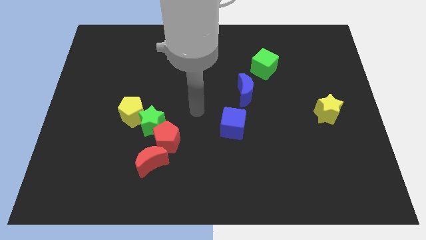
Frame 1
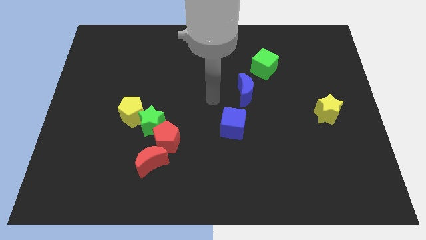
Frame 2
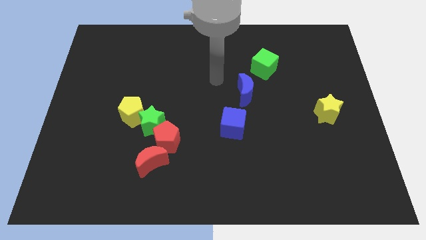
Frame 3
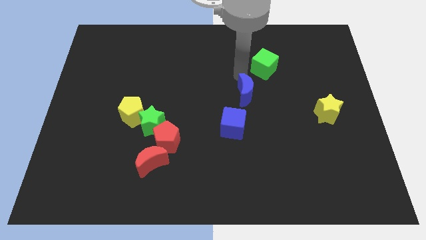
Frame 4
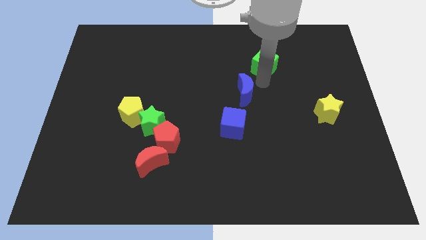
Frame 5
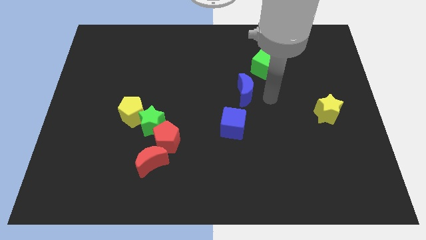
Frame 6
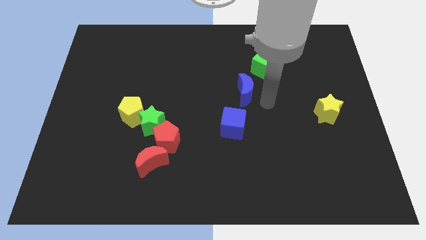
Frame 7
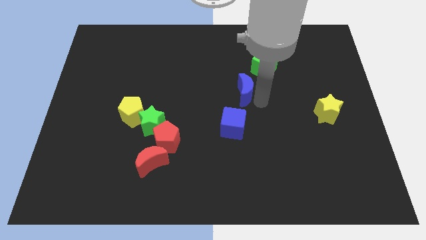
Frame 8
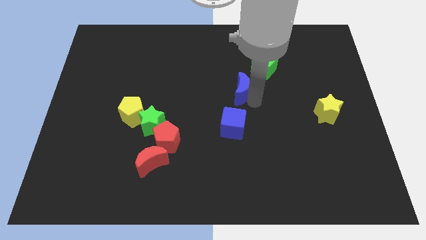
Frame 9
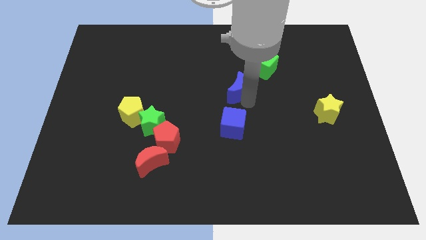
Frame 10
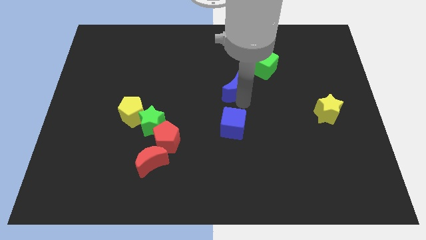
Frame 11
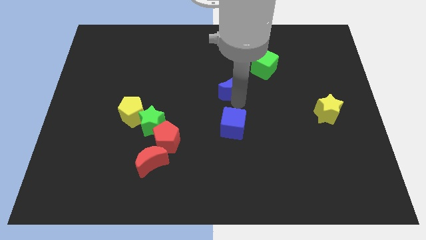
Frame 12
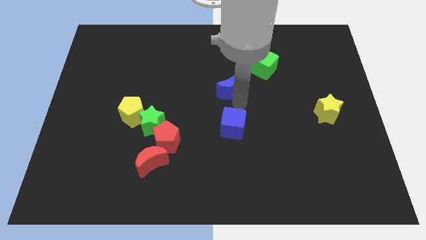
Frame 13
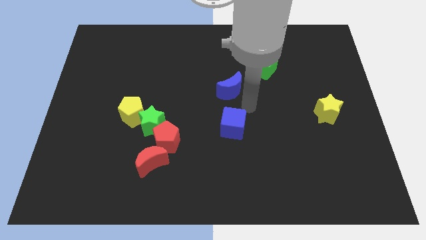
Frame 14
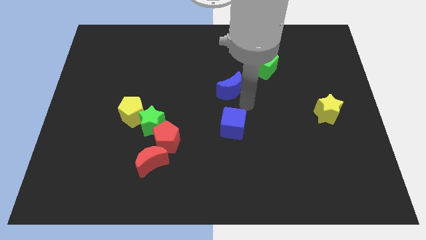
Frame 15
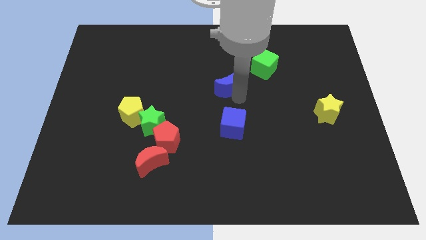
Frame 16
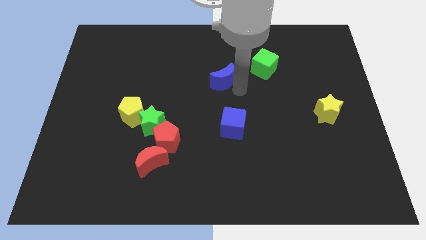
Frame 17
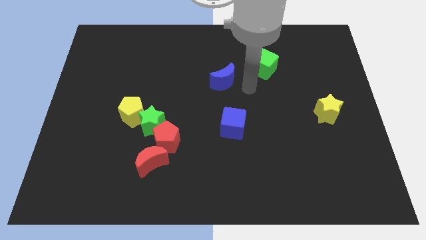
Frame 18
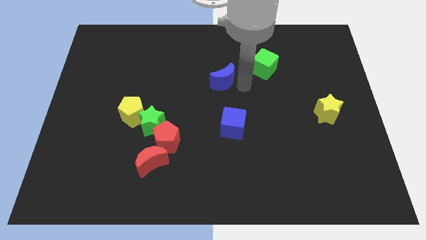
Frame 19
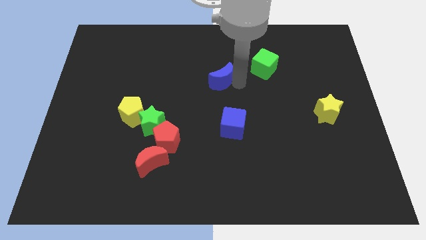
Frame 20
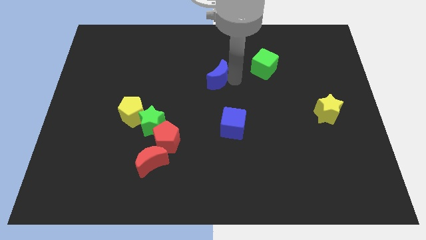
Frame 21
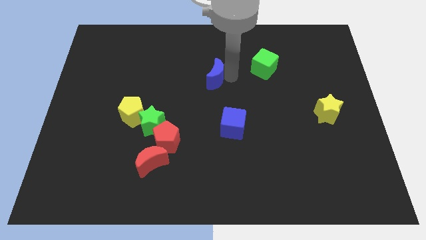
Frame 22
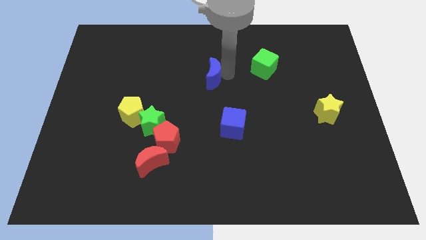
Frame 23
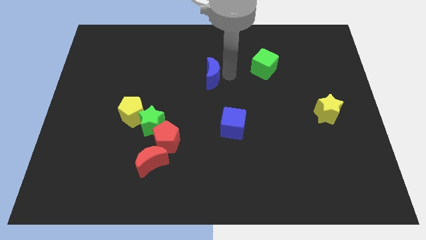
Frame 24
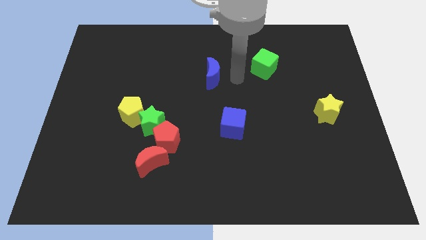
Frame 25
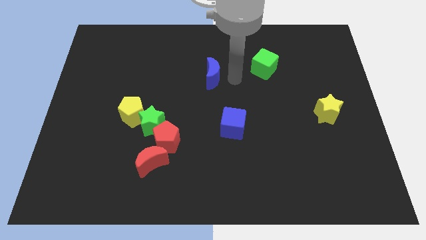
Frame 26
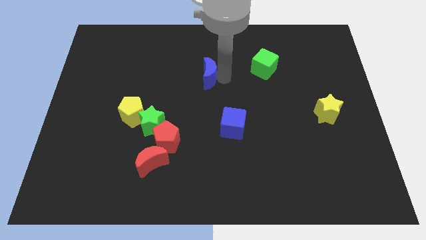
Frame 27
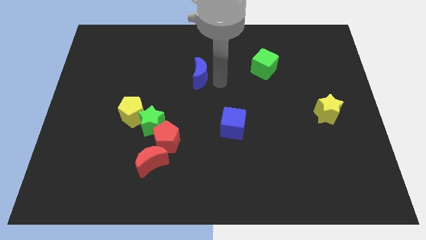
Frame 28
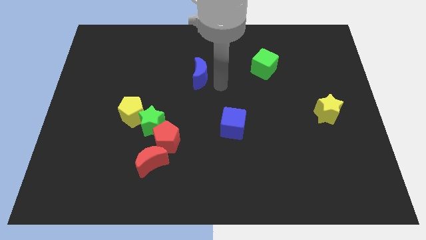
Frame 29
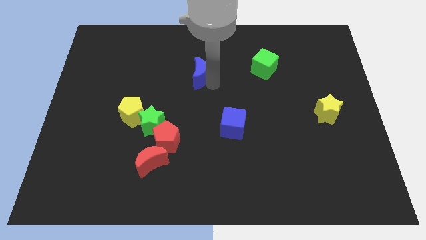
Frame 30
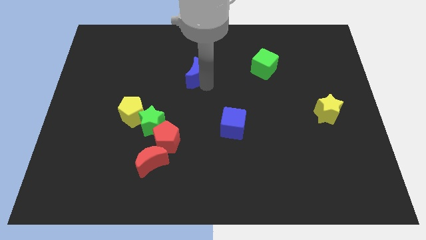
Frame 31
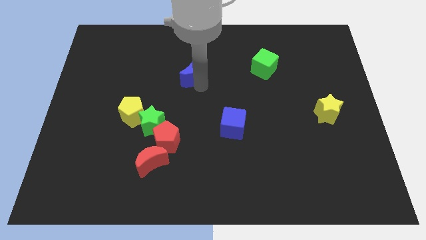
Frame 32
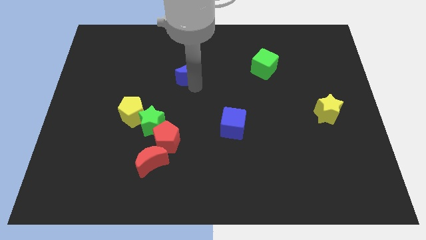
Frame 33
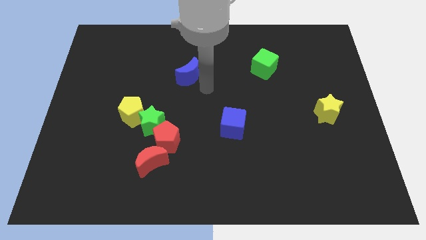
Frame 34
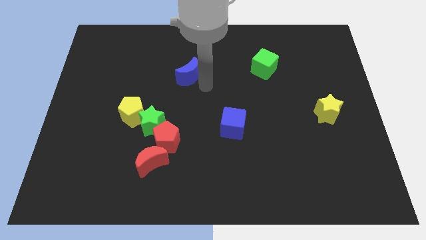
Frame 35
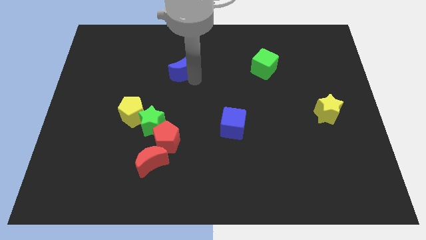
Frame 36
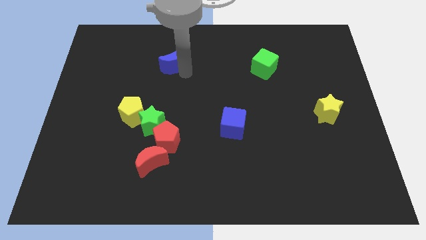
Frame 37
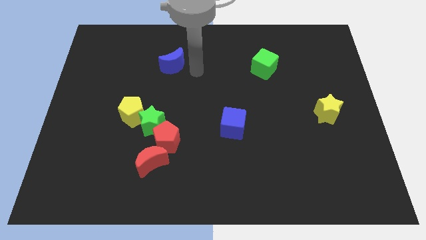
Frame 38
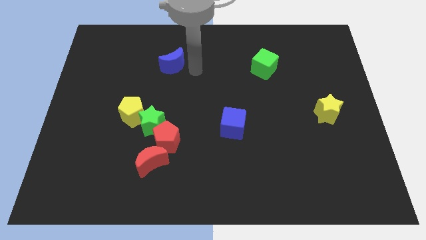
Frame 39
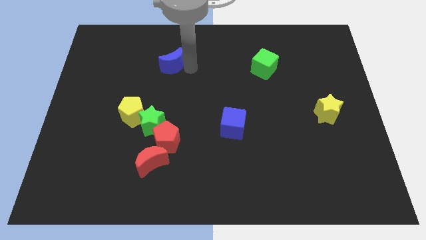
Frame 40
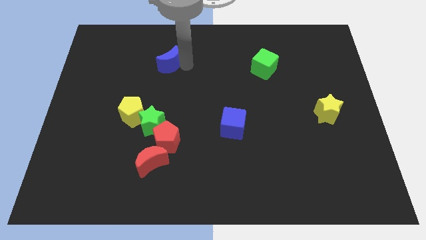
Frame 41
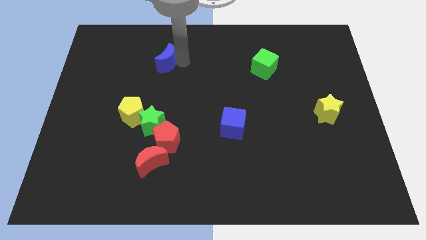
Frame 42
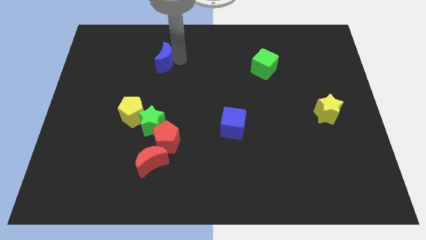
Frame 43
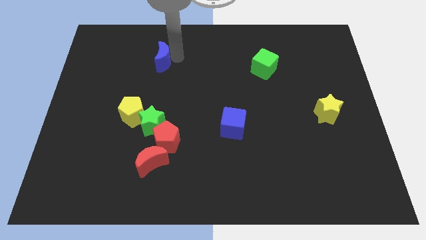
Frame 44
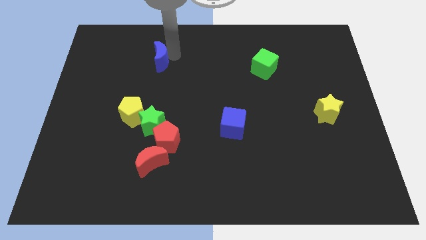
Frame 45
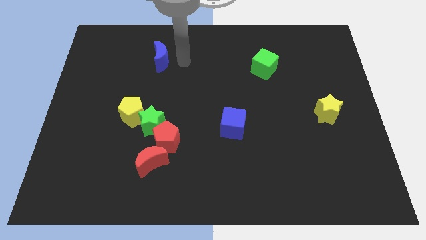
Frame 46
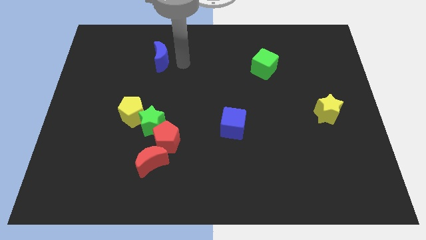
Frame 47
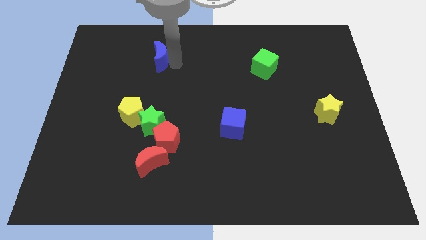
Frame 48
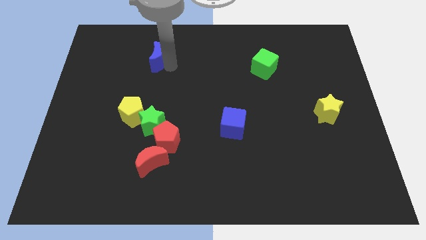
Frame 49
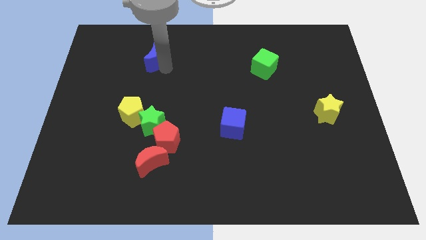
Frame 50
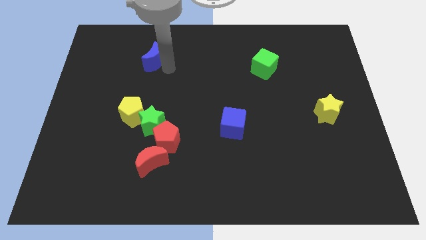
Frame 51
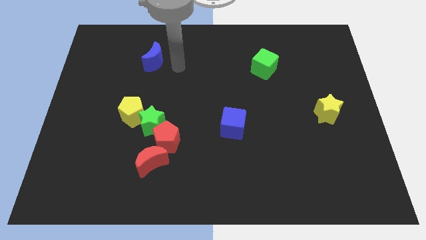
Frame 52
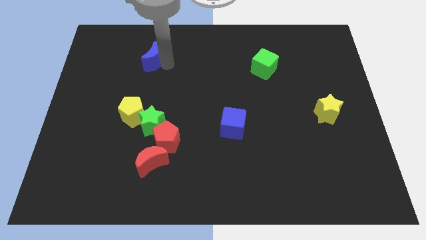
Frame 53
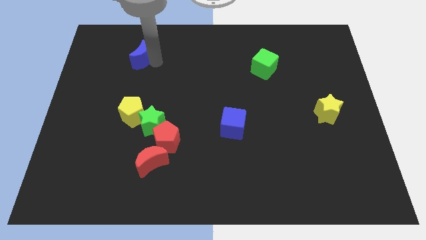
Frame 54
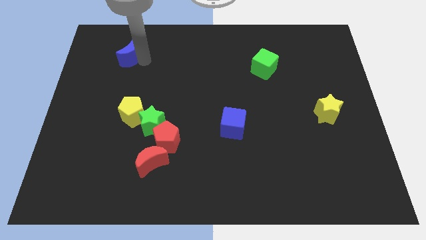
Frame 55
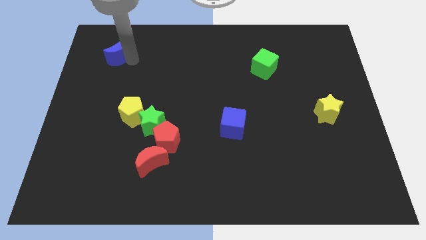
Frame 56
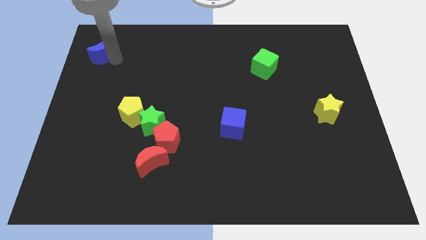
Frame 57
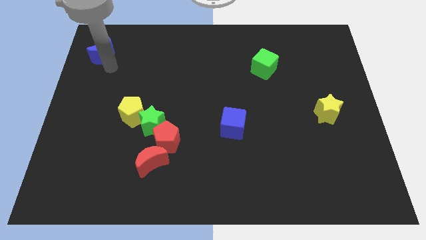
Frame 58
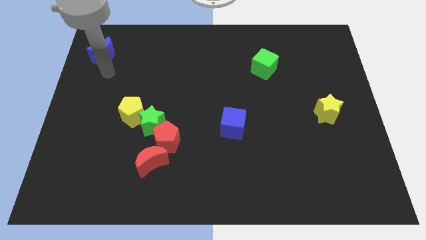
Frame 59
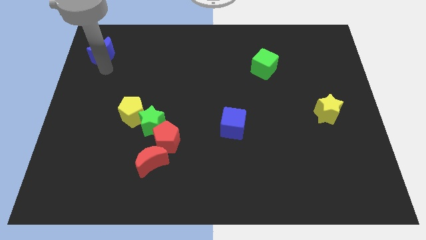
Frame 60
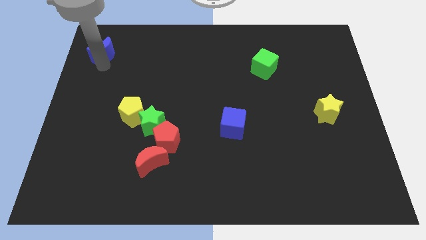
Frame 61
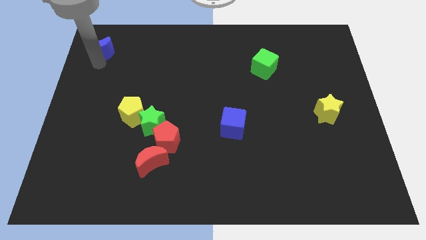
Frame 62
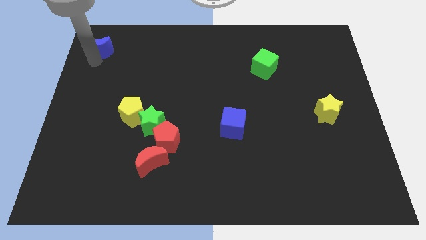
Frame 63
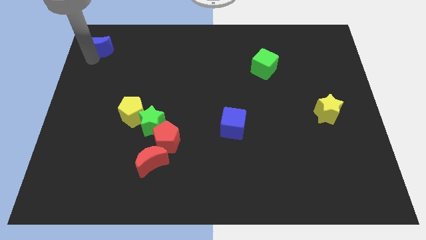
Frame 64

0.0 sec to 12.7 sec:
move the blue moon to the top left of the board

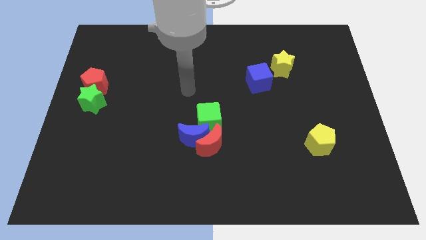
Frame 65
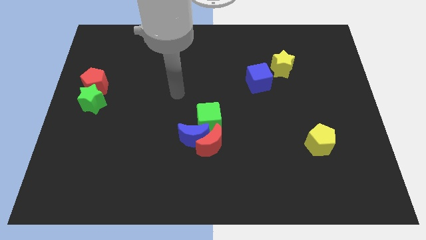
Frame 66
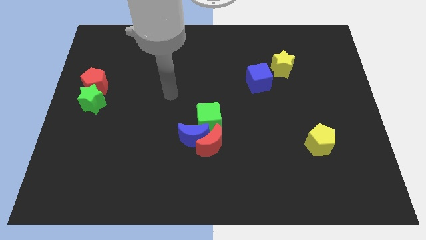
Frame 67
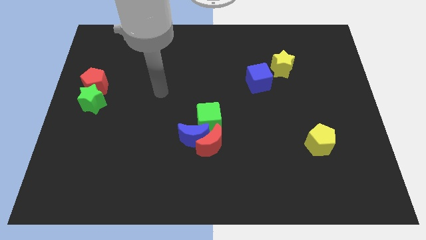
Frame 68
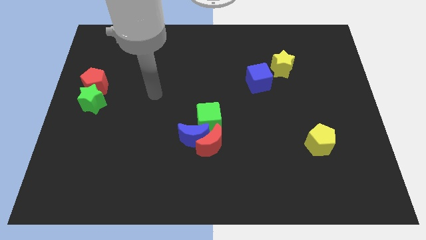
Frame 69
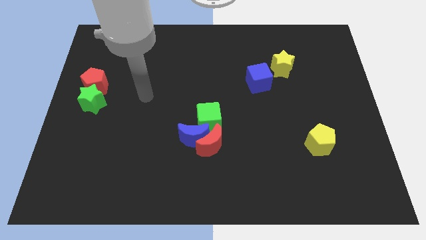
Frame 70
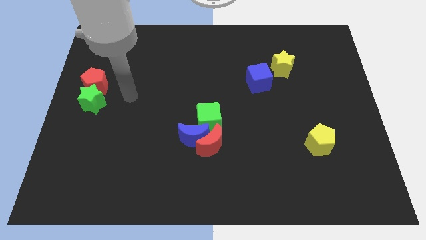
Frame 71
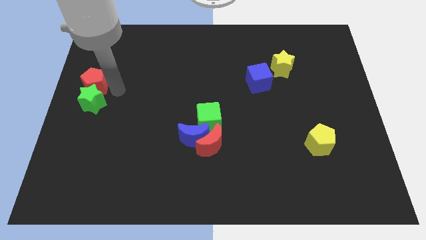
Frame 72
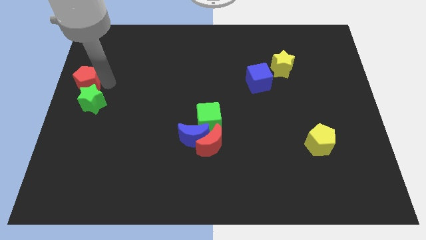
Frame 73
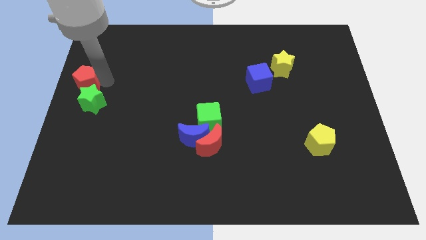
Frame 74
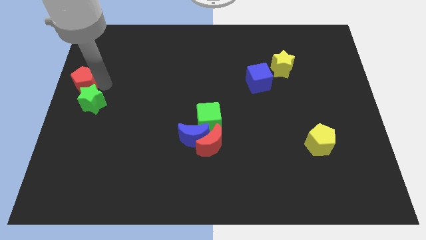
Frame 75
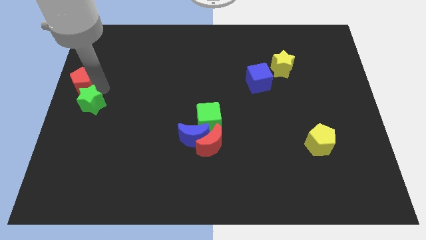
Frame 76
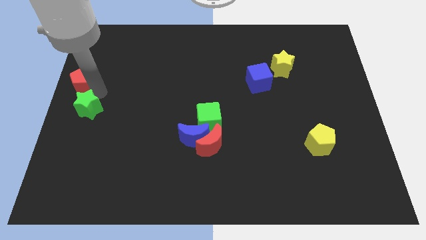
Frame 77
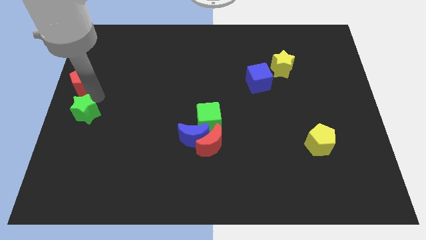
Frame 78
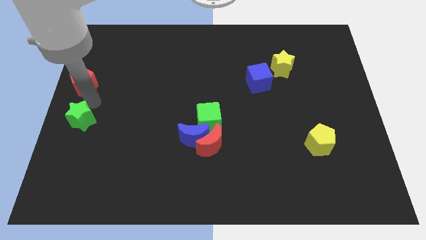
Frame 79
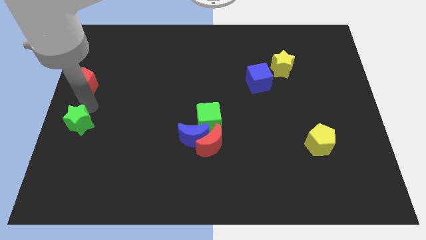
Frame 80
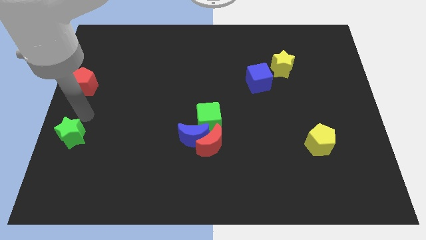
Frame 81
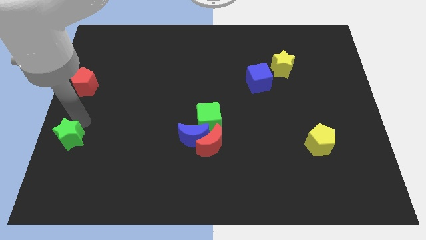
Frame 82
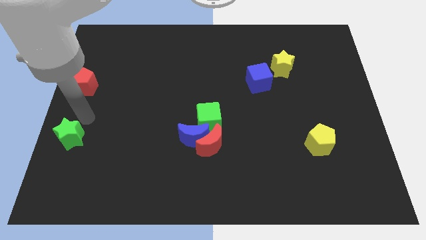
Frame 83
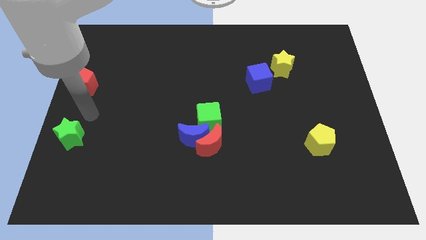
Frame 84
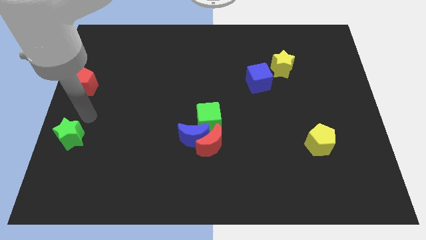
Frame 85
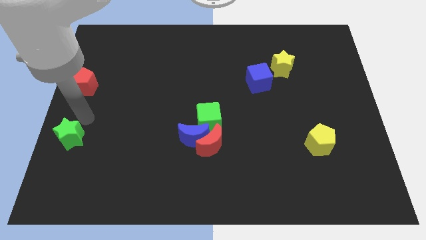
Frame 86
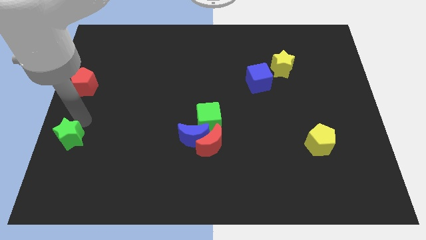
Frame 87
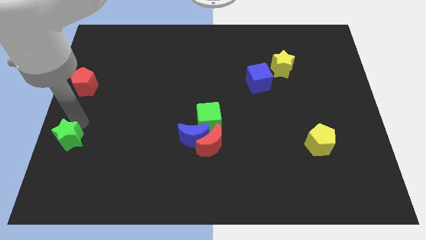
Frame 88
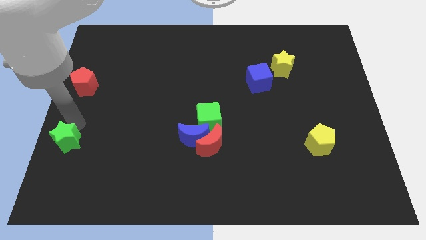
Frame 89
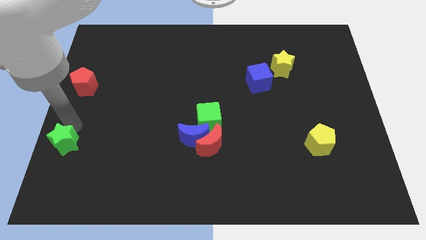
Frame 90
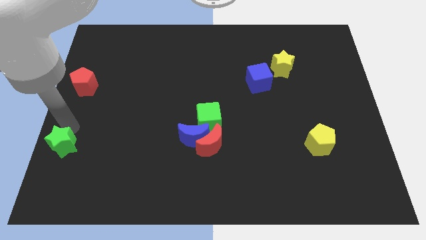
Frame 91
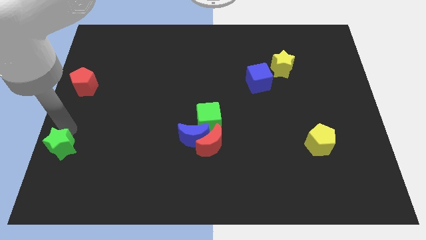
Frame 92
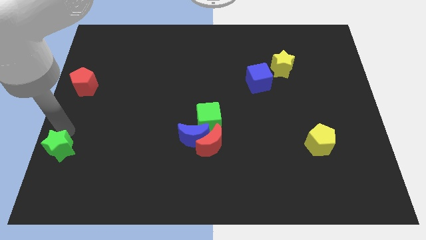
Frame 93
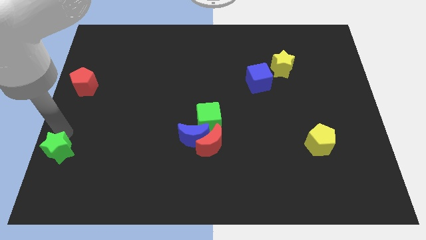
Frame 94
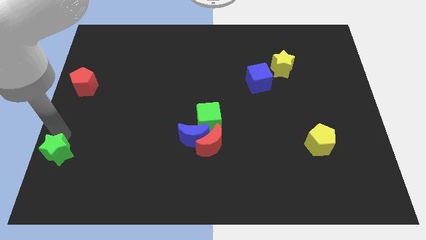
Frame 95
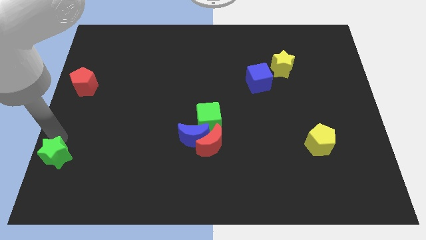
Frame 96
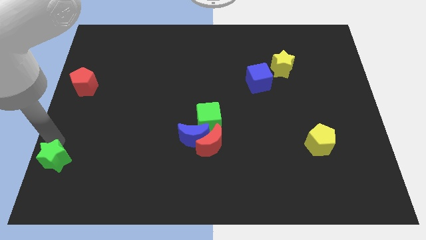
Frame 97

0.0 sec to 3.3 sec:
put the green star to the bottom left
